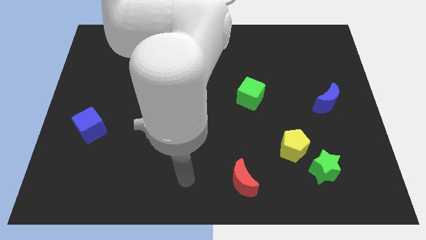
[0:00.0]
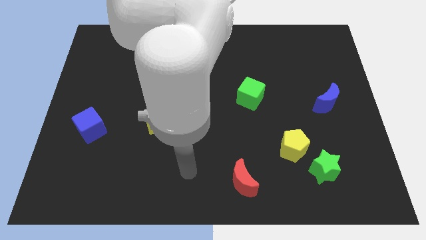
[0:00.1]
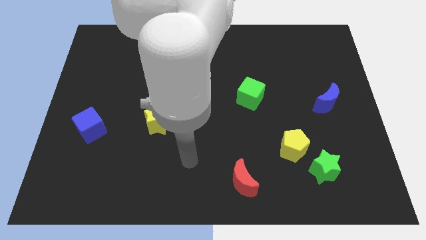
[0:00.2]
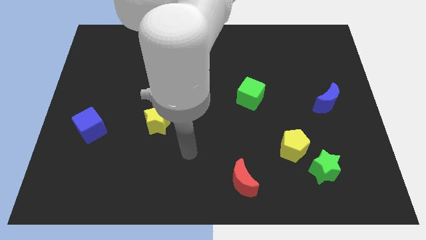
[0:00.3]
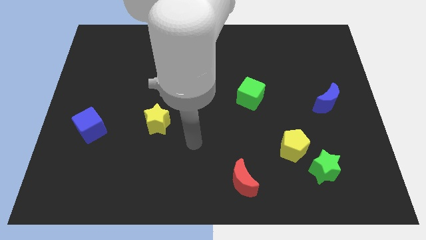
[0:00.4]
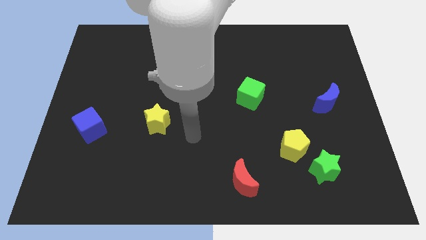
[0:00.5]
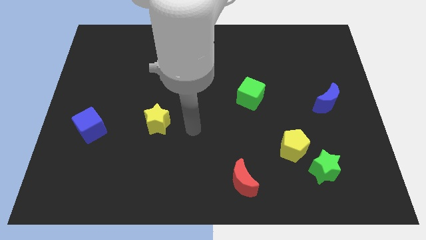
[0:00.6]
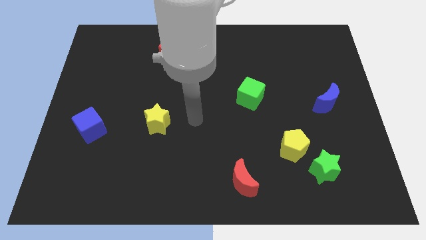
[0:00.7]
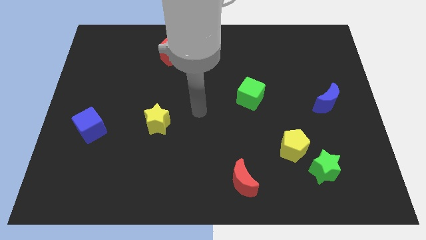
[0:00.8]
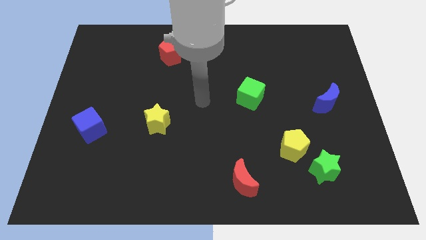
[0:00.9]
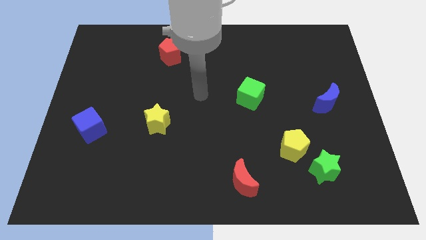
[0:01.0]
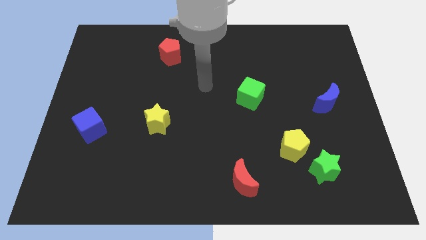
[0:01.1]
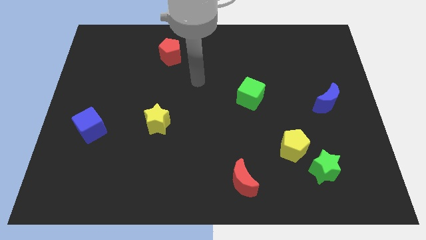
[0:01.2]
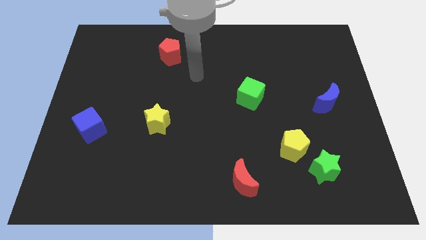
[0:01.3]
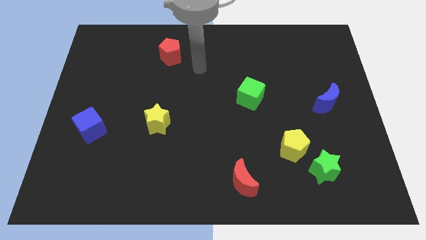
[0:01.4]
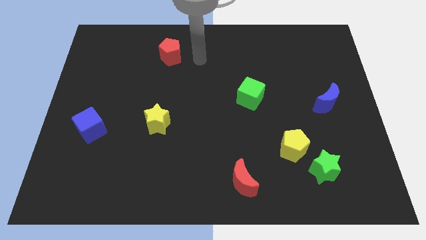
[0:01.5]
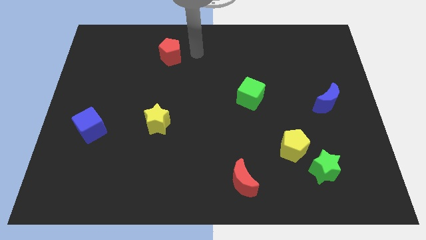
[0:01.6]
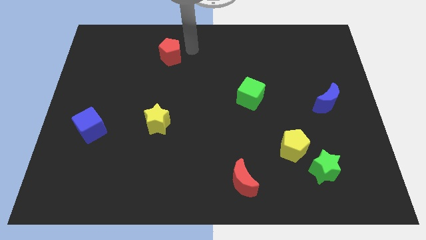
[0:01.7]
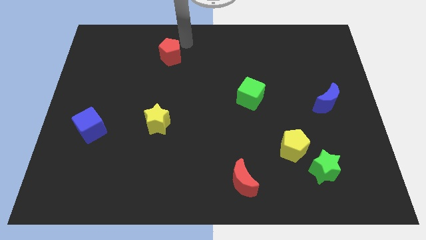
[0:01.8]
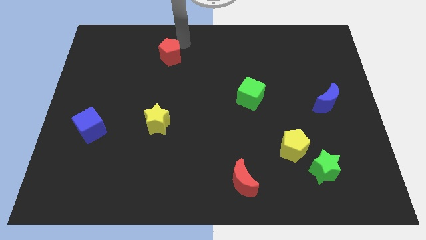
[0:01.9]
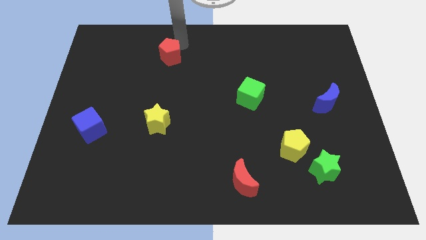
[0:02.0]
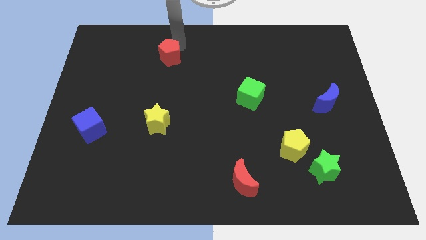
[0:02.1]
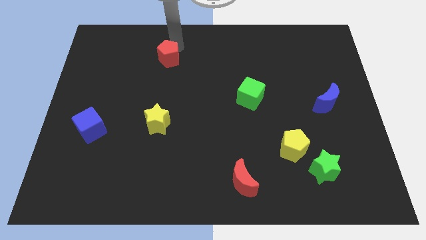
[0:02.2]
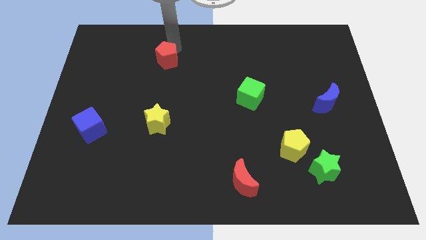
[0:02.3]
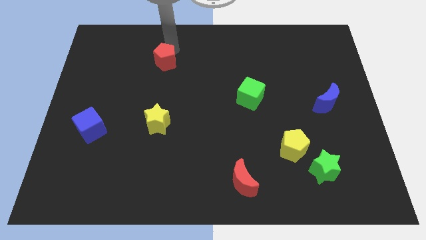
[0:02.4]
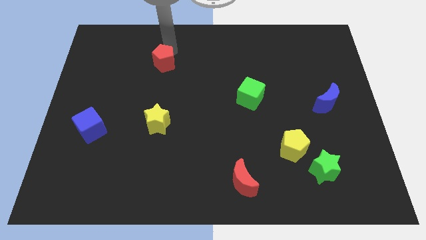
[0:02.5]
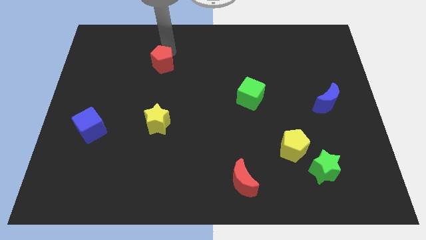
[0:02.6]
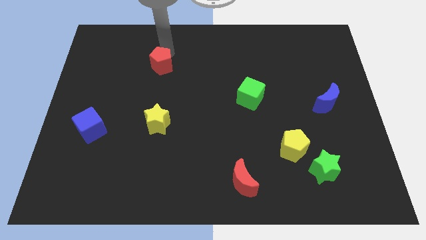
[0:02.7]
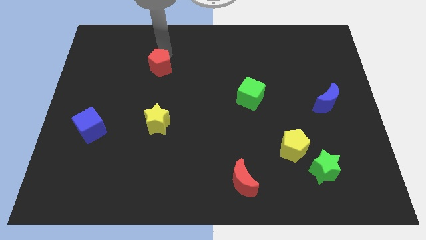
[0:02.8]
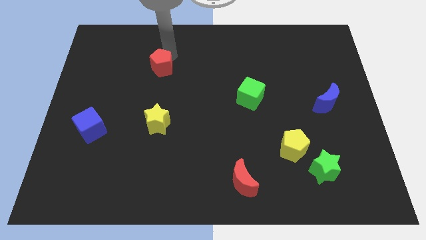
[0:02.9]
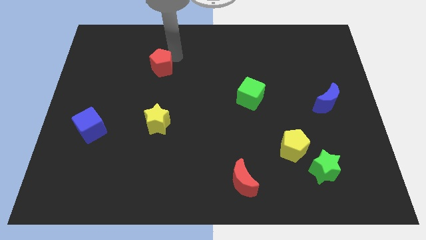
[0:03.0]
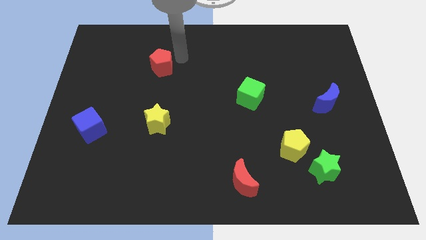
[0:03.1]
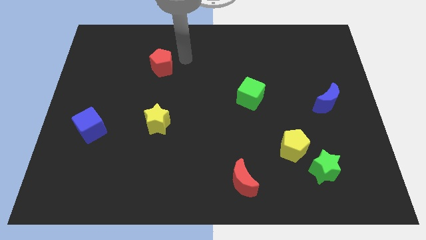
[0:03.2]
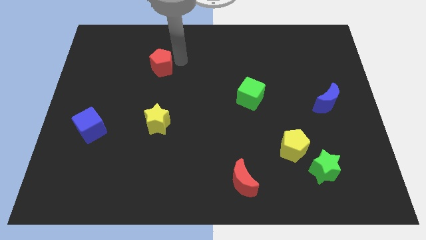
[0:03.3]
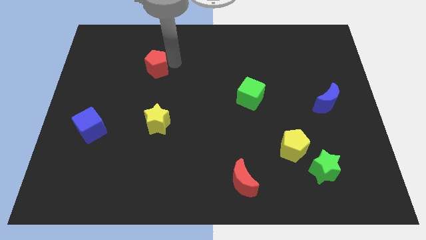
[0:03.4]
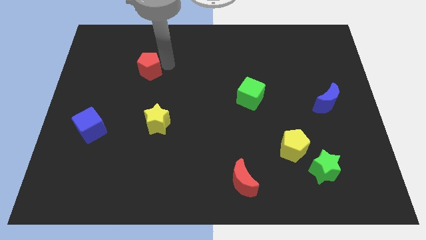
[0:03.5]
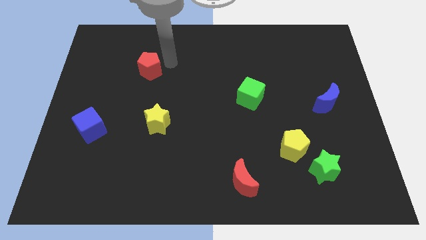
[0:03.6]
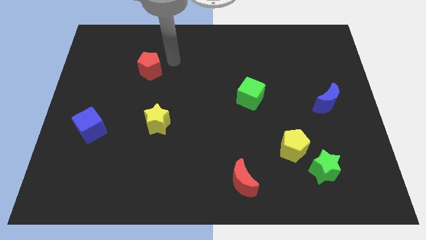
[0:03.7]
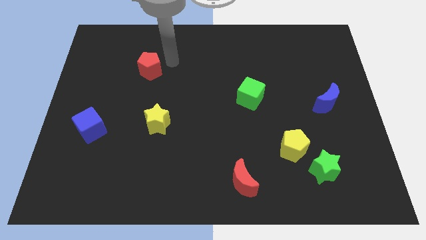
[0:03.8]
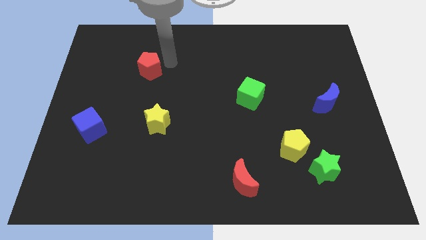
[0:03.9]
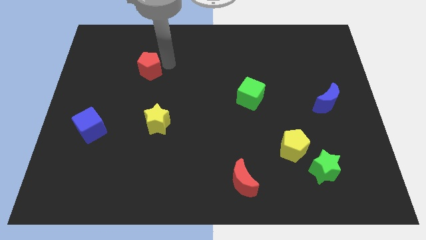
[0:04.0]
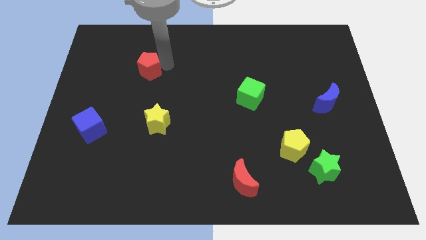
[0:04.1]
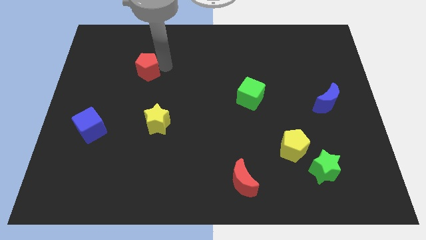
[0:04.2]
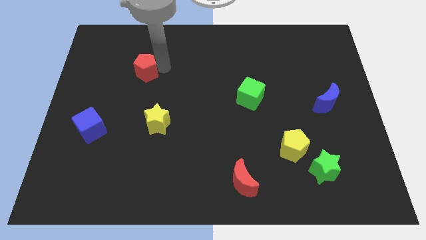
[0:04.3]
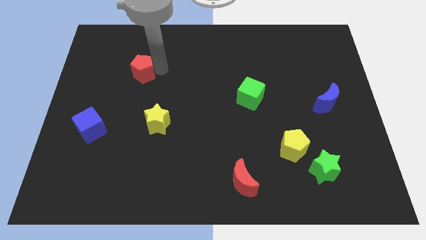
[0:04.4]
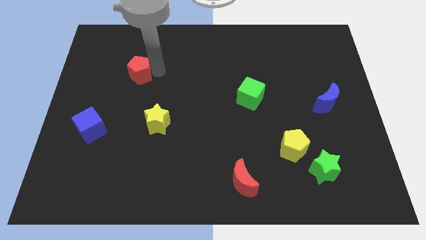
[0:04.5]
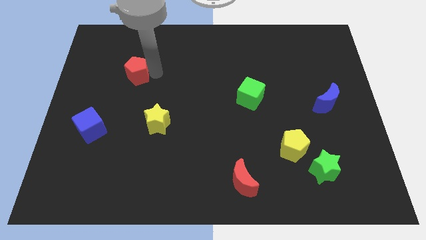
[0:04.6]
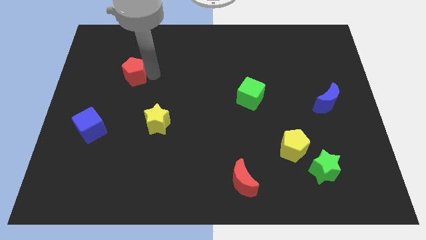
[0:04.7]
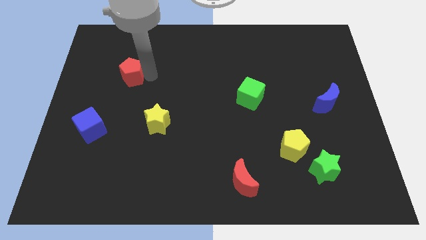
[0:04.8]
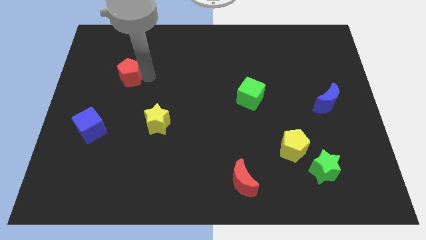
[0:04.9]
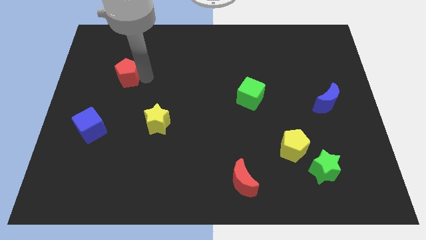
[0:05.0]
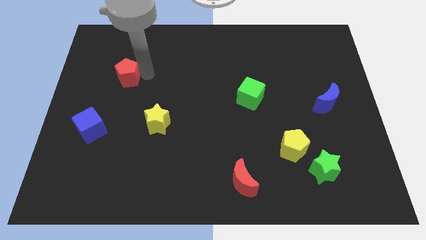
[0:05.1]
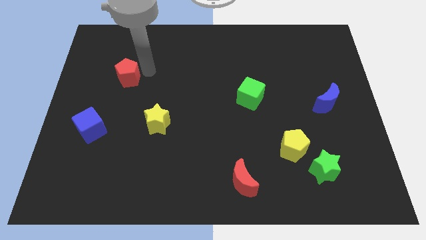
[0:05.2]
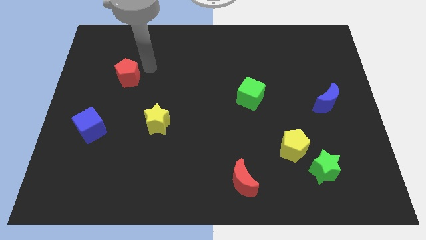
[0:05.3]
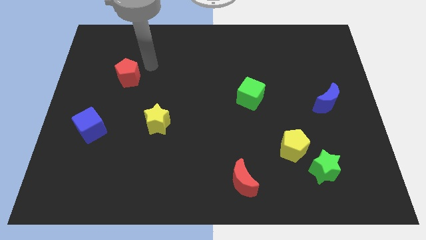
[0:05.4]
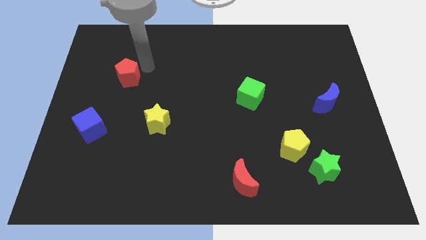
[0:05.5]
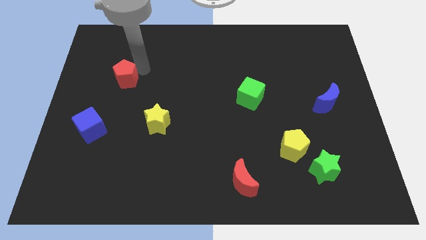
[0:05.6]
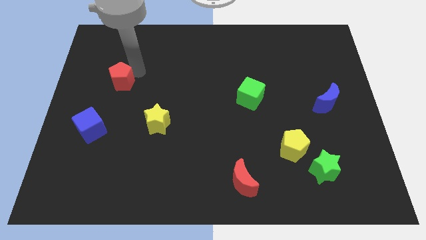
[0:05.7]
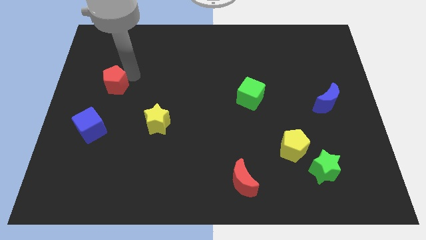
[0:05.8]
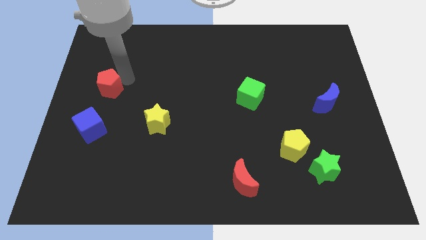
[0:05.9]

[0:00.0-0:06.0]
move the red pentagon to the left side of the board
